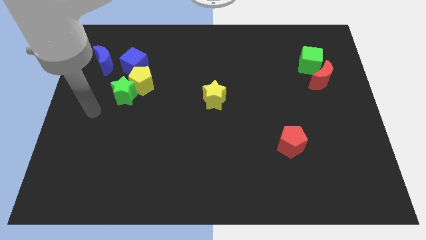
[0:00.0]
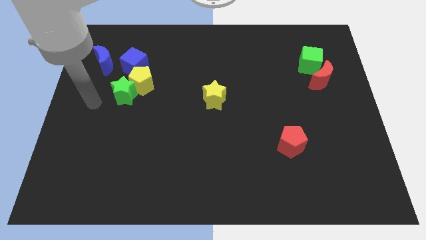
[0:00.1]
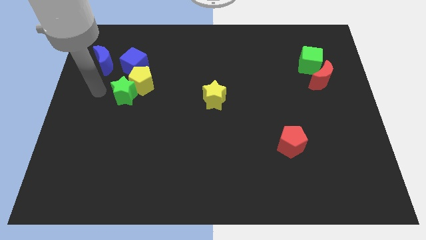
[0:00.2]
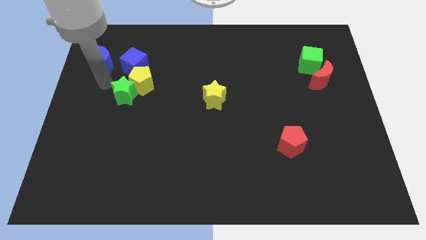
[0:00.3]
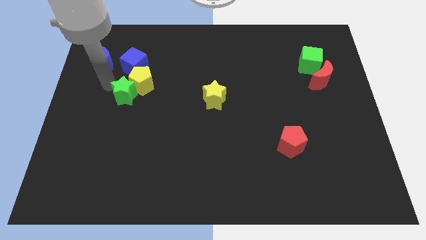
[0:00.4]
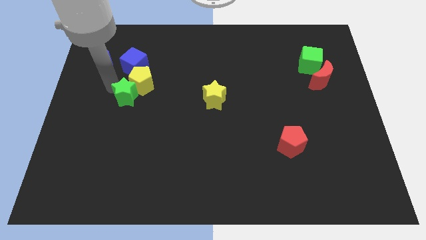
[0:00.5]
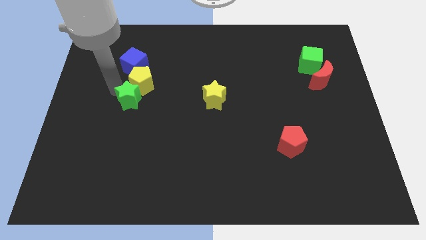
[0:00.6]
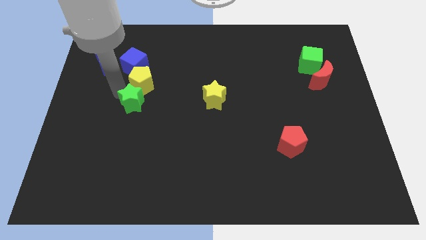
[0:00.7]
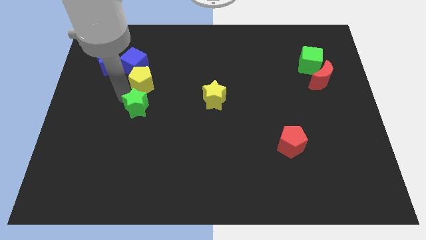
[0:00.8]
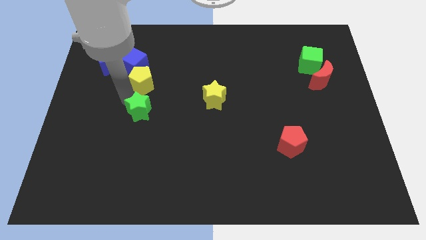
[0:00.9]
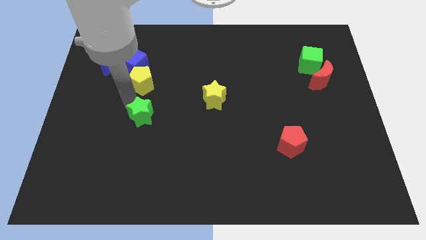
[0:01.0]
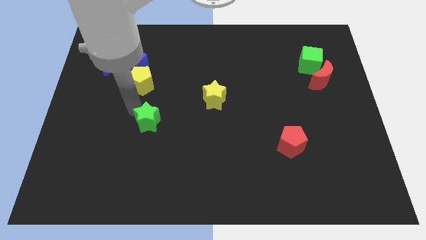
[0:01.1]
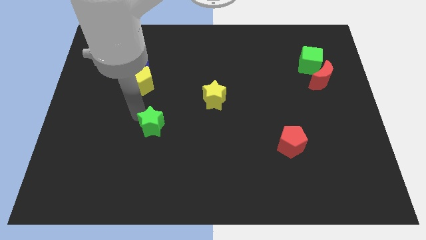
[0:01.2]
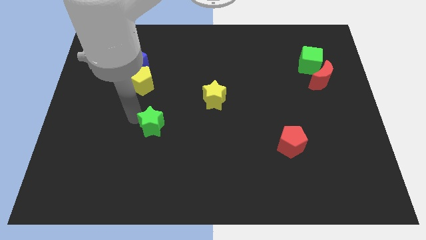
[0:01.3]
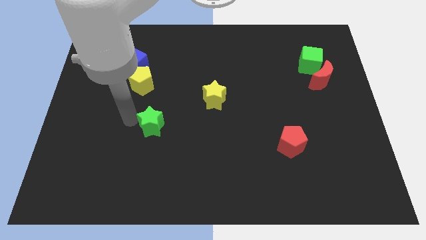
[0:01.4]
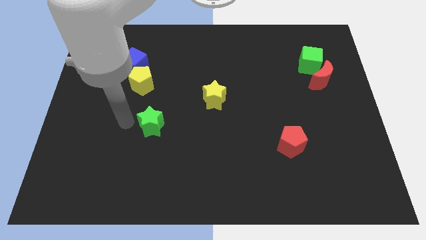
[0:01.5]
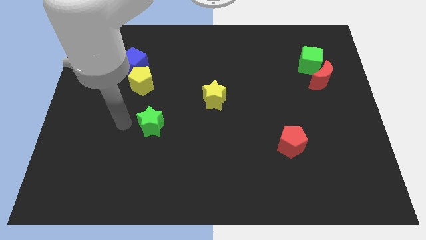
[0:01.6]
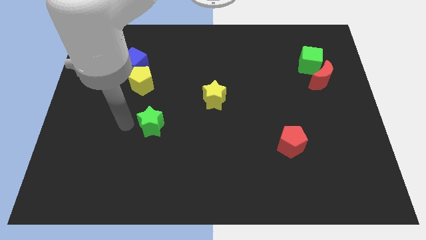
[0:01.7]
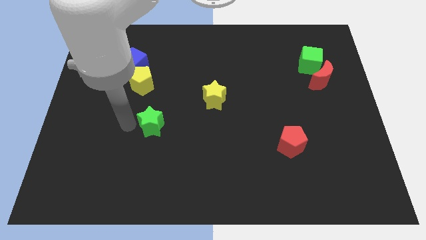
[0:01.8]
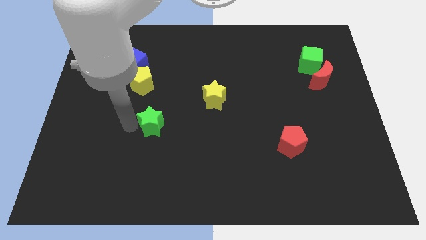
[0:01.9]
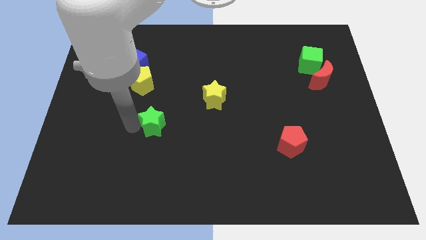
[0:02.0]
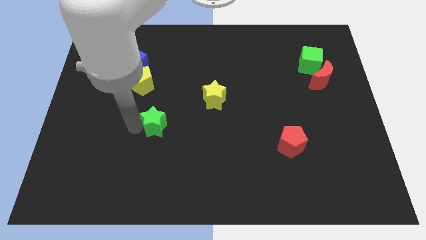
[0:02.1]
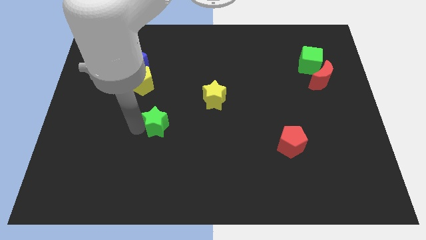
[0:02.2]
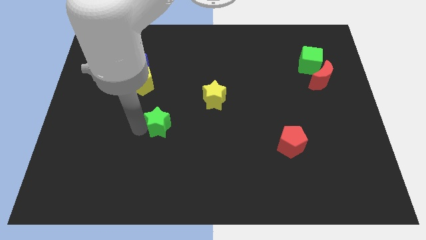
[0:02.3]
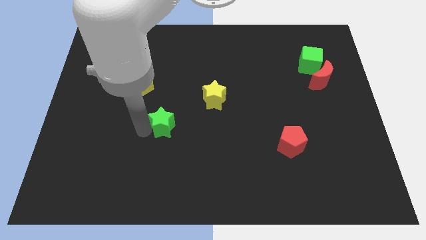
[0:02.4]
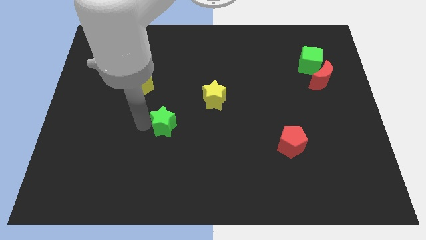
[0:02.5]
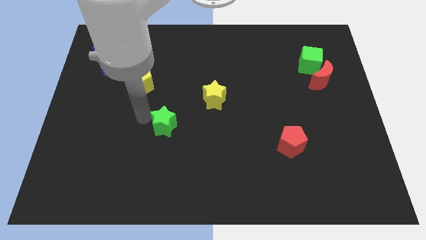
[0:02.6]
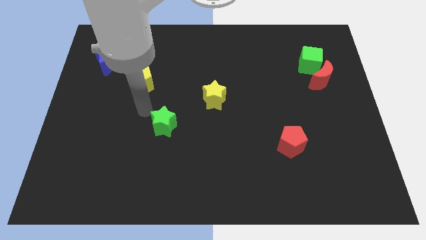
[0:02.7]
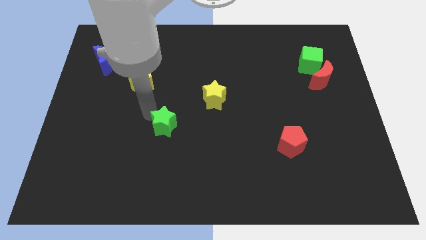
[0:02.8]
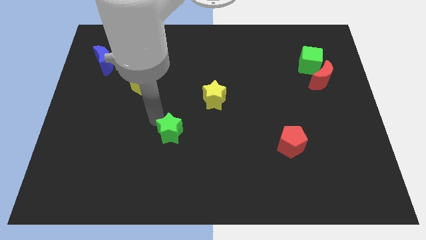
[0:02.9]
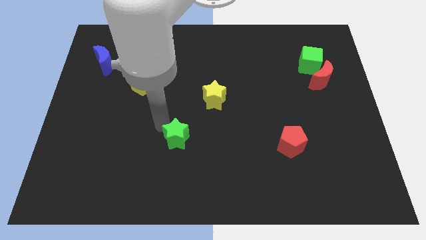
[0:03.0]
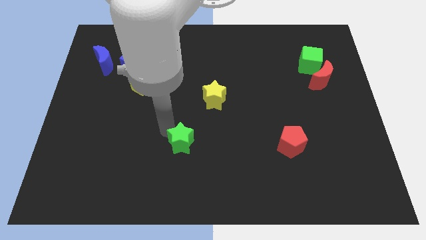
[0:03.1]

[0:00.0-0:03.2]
move the green star down and to the right

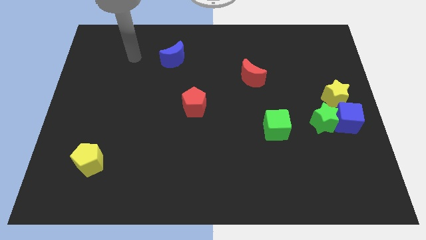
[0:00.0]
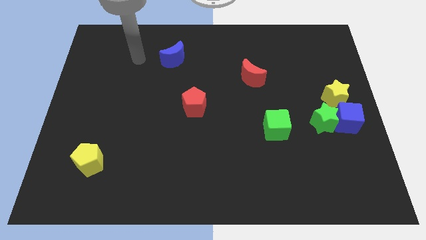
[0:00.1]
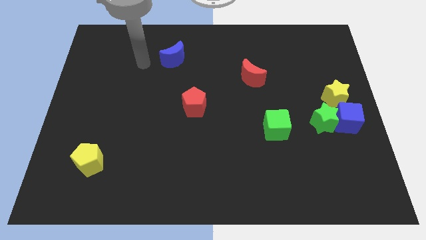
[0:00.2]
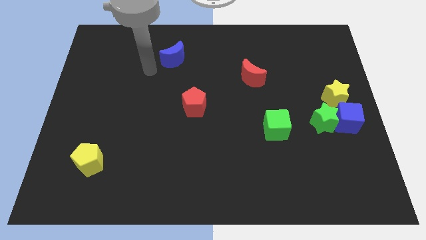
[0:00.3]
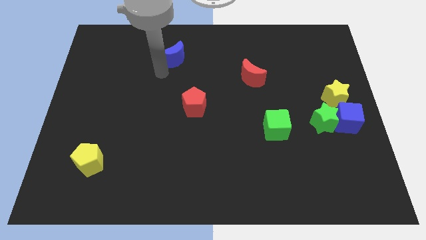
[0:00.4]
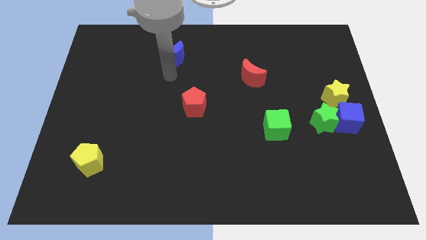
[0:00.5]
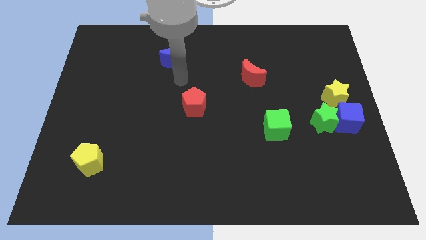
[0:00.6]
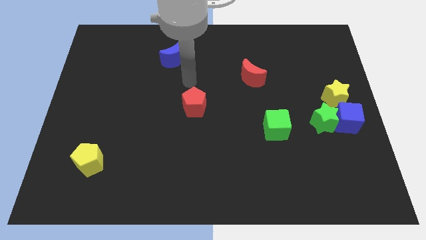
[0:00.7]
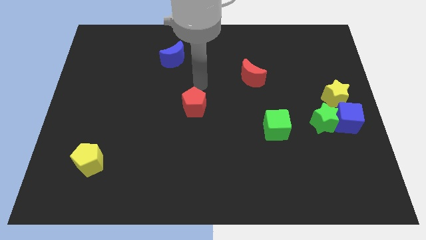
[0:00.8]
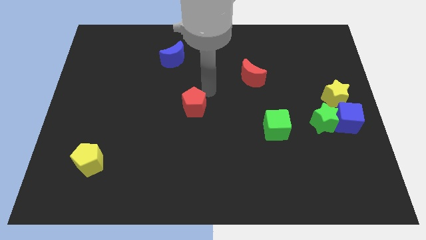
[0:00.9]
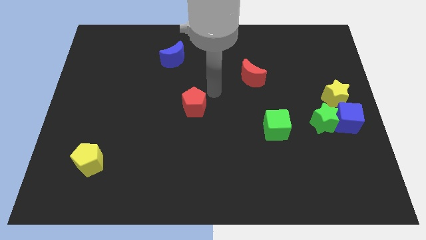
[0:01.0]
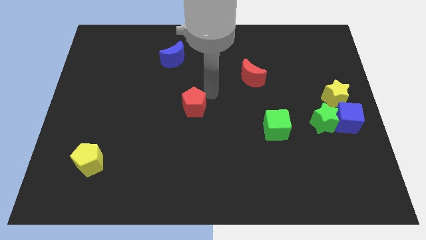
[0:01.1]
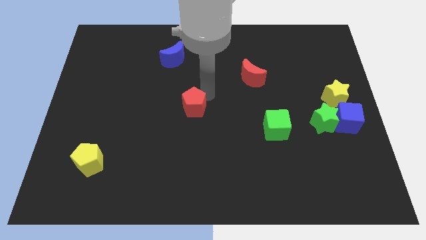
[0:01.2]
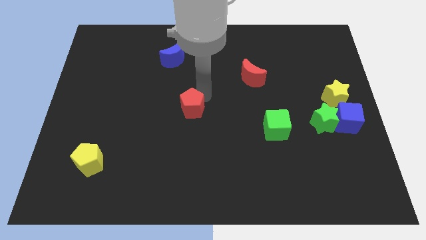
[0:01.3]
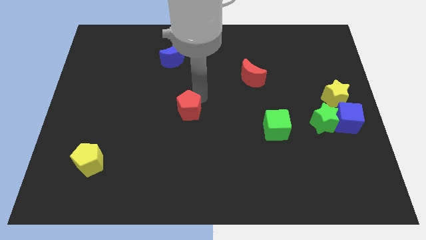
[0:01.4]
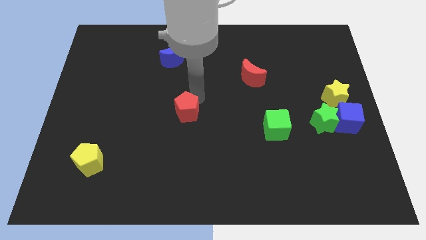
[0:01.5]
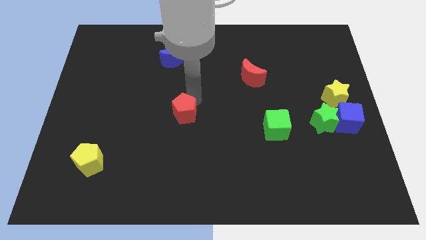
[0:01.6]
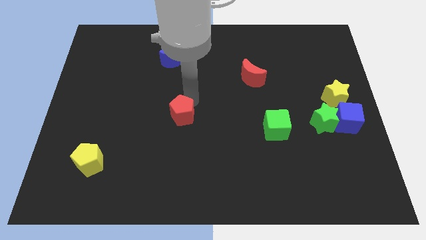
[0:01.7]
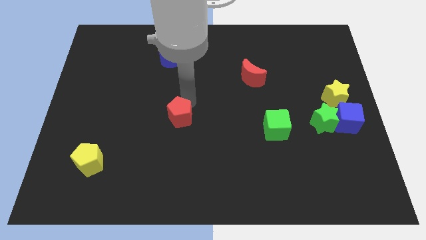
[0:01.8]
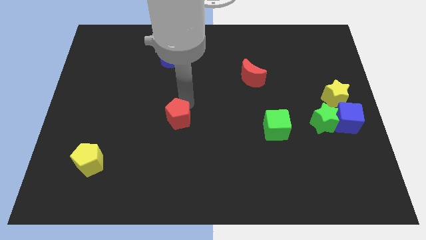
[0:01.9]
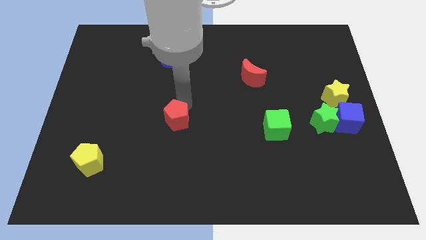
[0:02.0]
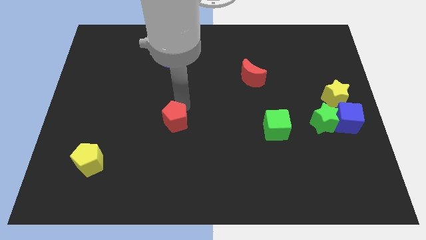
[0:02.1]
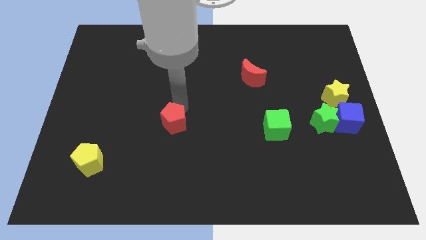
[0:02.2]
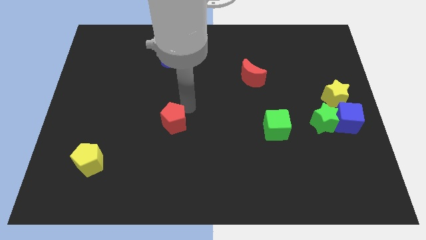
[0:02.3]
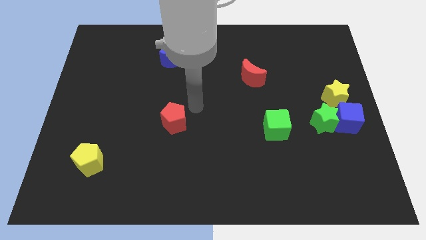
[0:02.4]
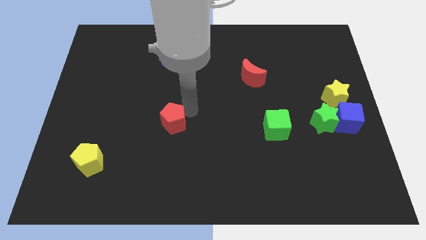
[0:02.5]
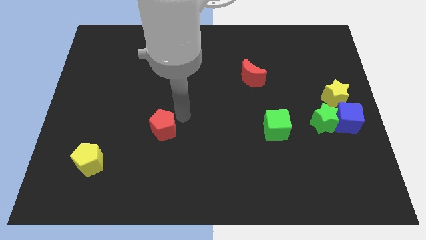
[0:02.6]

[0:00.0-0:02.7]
move the red pentagon diagonally downwards and to the left slightly

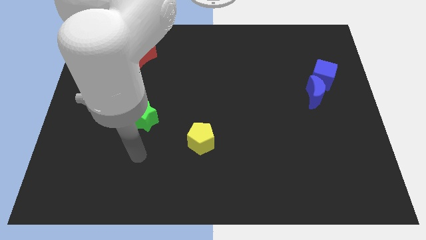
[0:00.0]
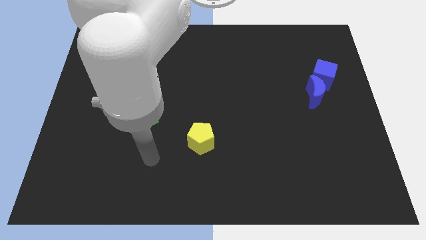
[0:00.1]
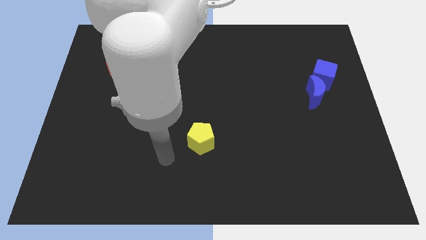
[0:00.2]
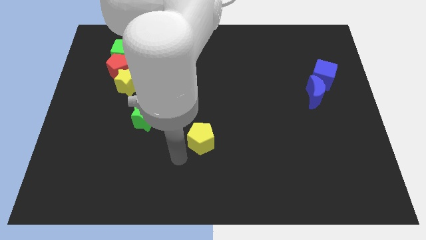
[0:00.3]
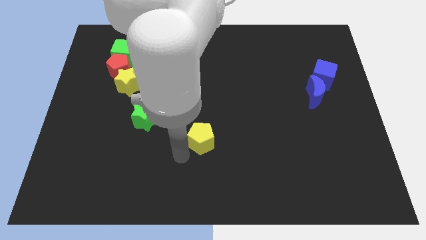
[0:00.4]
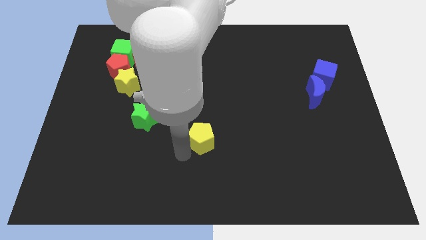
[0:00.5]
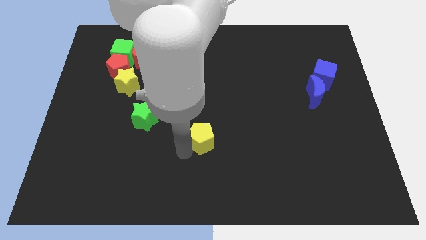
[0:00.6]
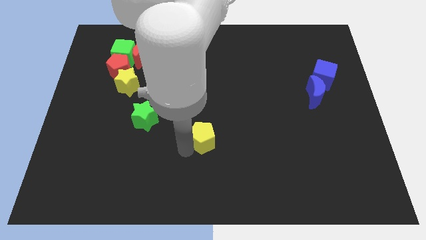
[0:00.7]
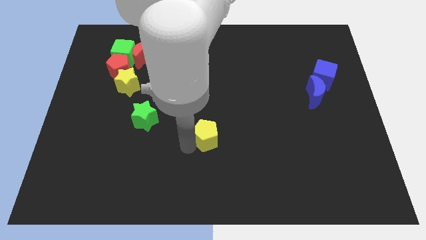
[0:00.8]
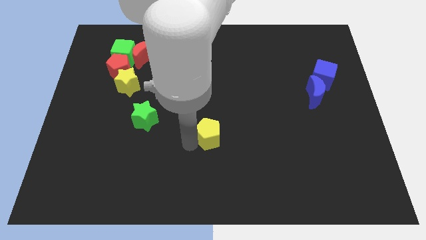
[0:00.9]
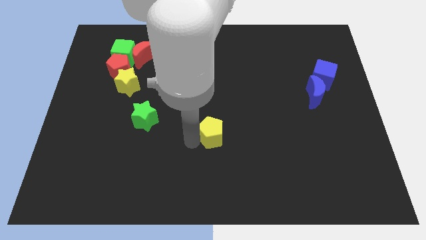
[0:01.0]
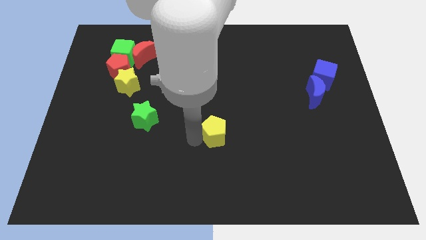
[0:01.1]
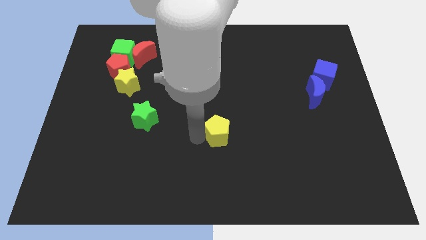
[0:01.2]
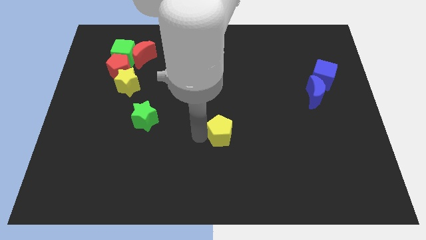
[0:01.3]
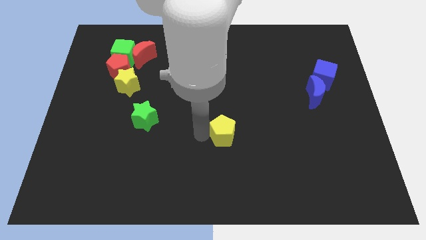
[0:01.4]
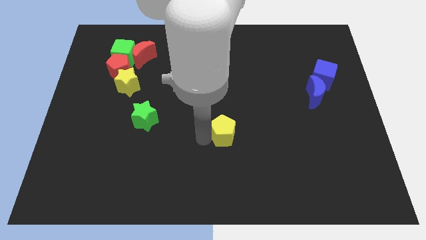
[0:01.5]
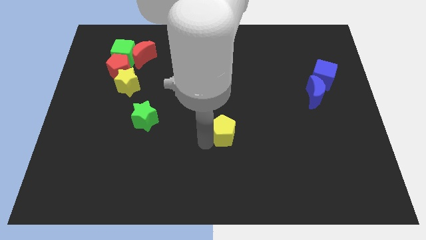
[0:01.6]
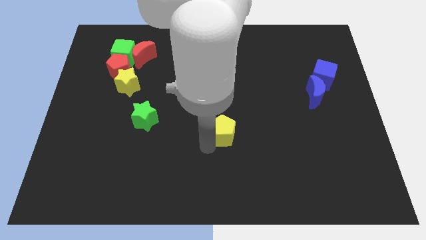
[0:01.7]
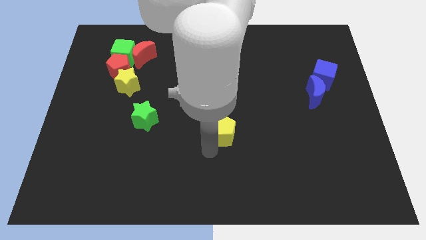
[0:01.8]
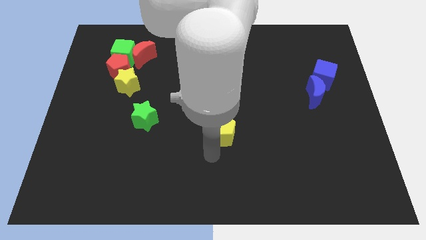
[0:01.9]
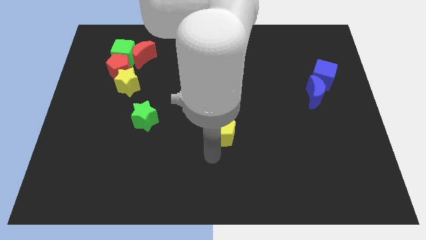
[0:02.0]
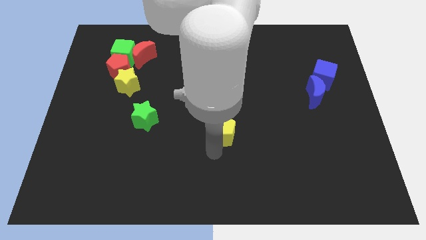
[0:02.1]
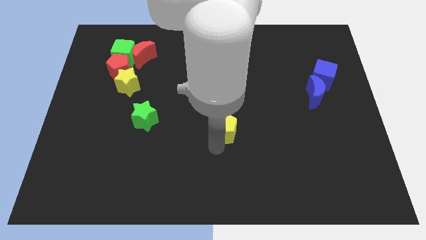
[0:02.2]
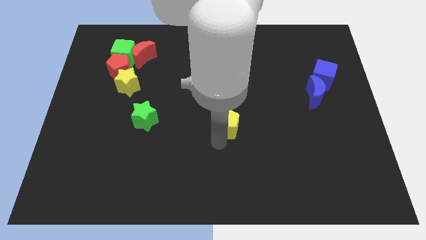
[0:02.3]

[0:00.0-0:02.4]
push the yellow pentagon upwards and right a little bit

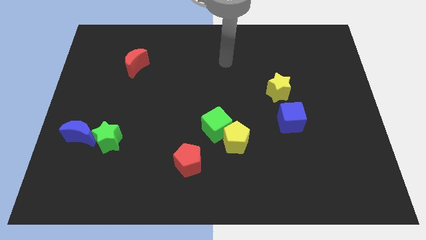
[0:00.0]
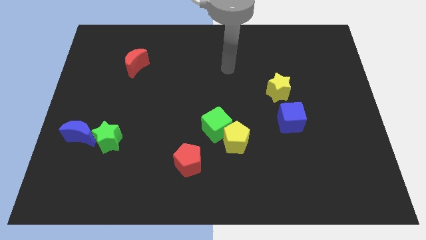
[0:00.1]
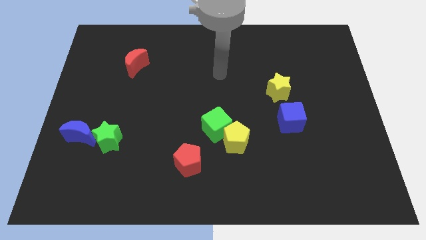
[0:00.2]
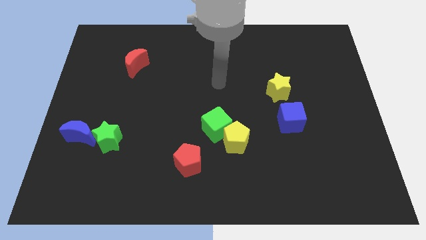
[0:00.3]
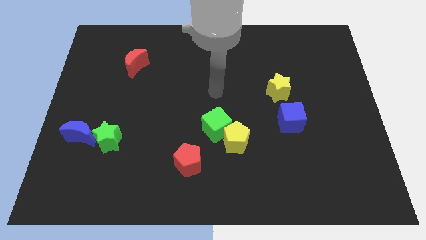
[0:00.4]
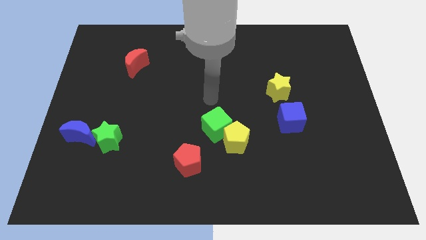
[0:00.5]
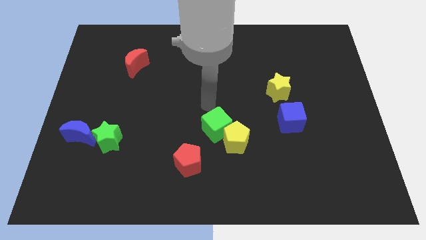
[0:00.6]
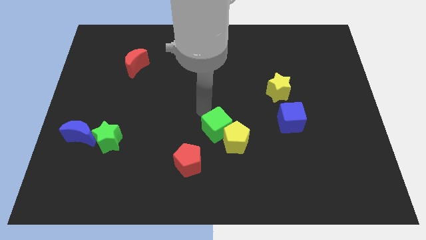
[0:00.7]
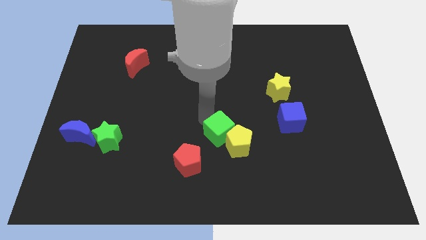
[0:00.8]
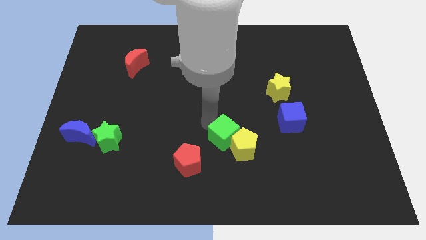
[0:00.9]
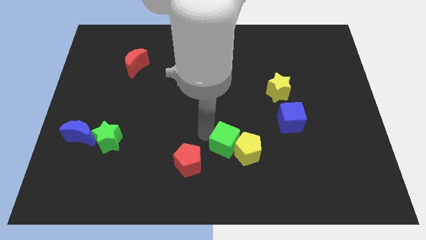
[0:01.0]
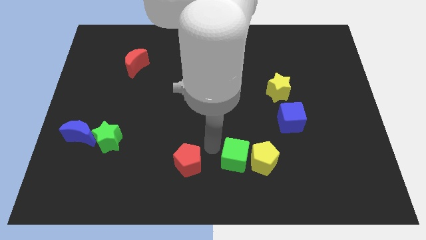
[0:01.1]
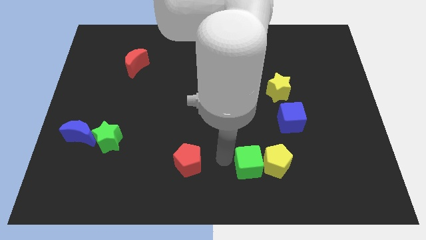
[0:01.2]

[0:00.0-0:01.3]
slide the yellow pentagon a little right
